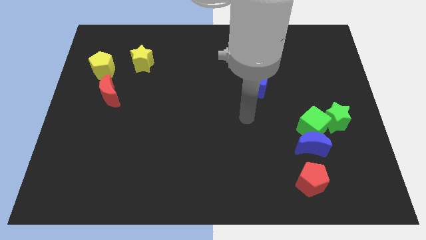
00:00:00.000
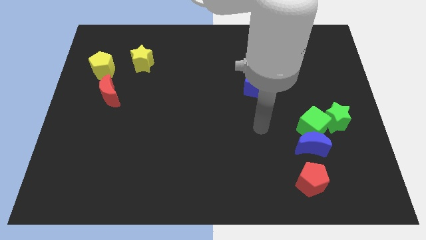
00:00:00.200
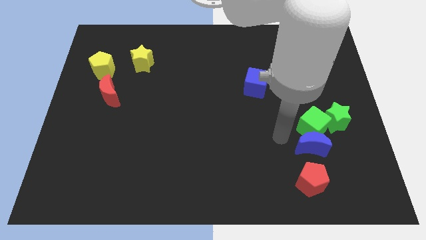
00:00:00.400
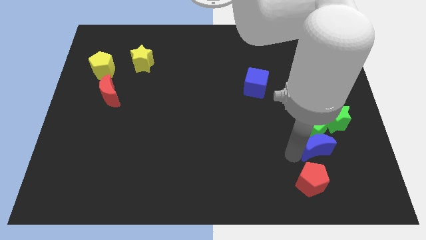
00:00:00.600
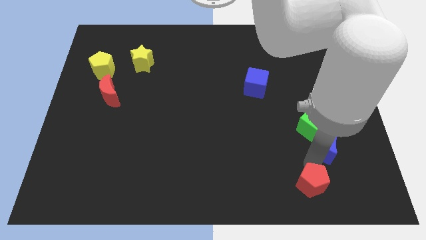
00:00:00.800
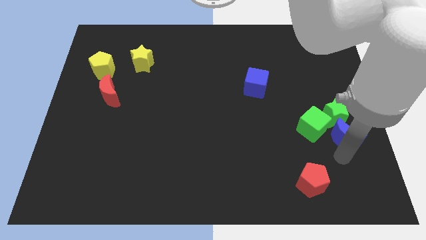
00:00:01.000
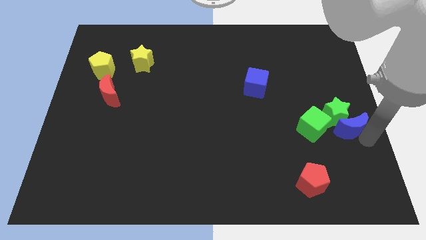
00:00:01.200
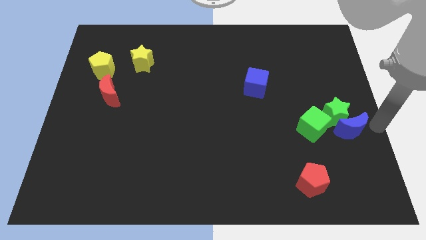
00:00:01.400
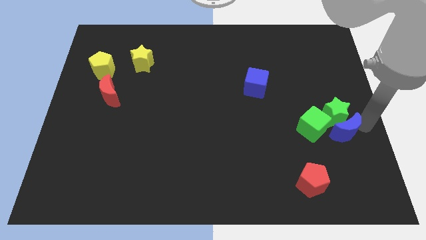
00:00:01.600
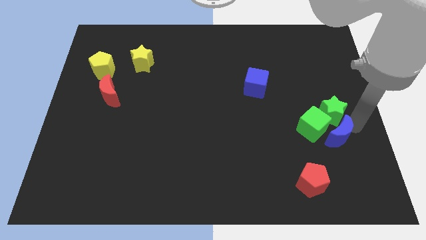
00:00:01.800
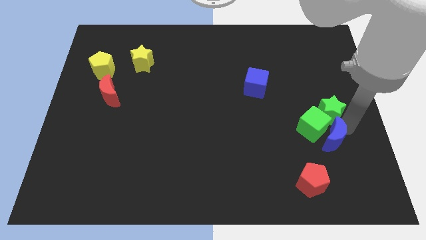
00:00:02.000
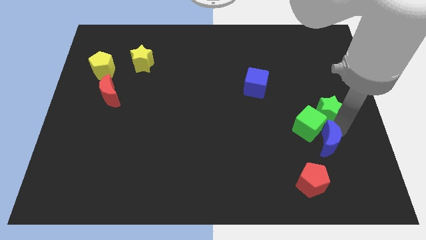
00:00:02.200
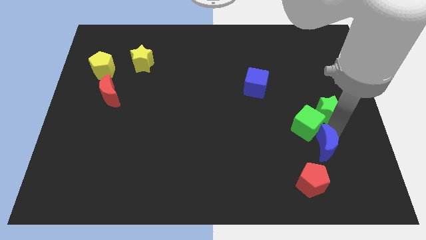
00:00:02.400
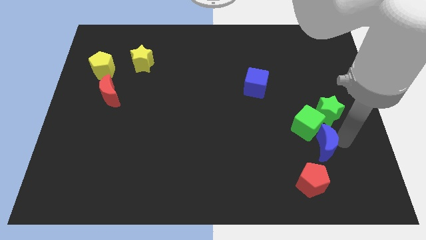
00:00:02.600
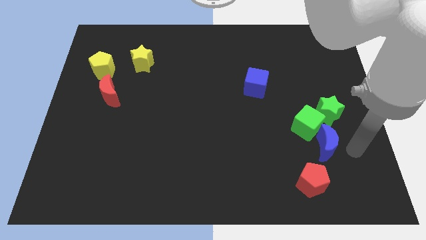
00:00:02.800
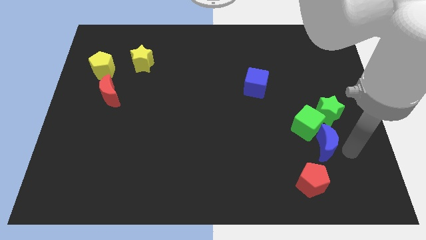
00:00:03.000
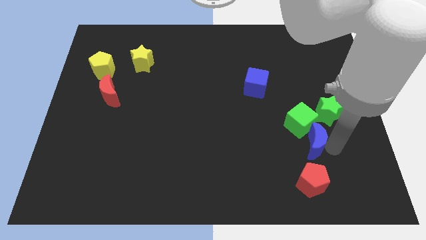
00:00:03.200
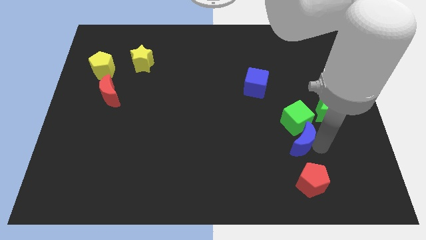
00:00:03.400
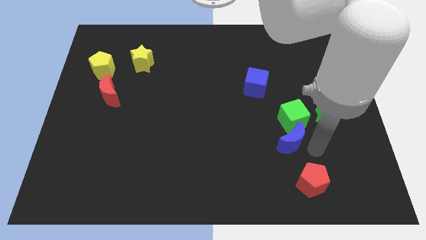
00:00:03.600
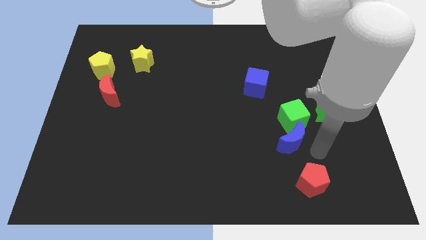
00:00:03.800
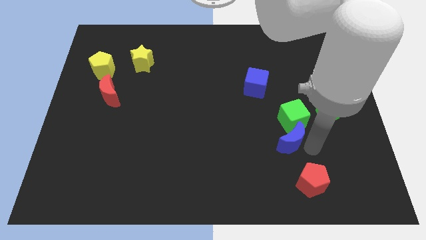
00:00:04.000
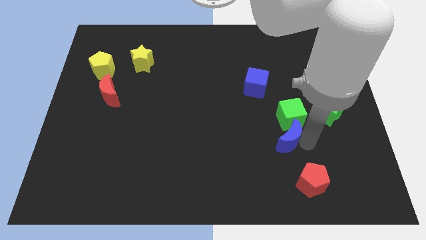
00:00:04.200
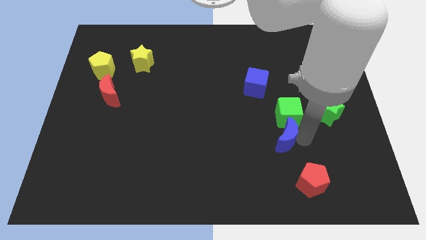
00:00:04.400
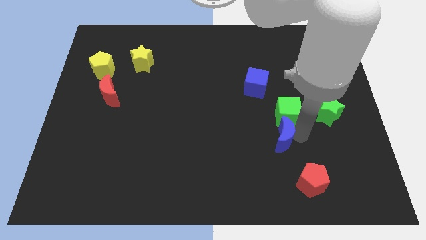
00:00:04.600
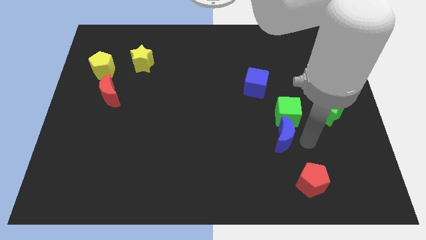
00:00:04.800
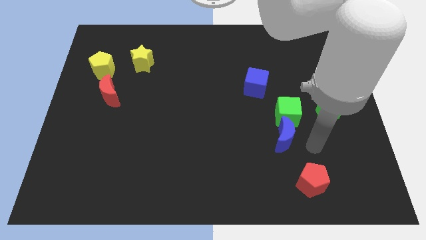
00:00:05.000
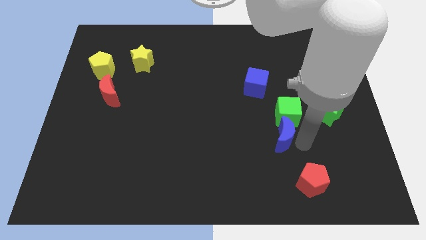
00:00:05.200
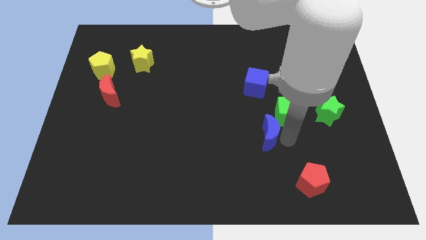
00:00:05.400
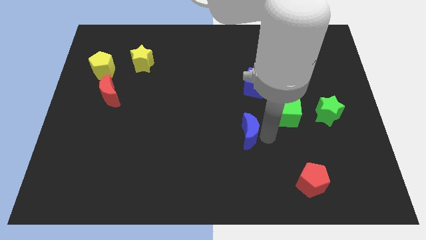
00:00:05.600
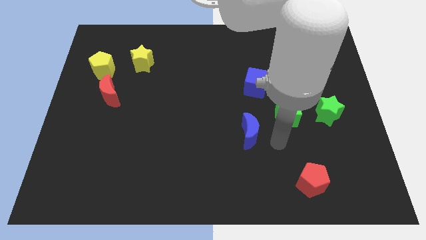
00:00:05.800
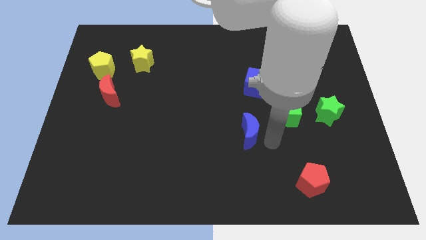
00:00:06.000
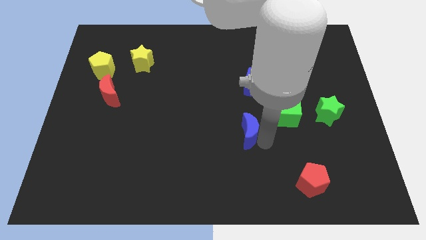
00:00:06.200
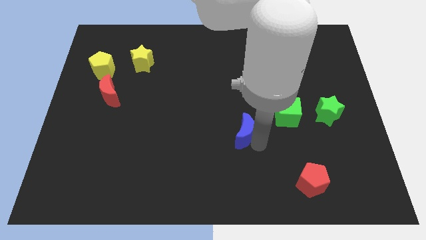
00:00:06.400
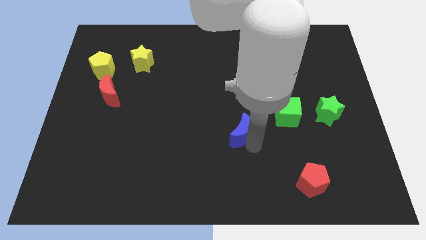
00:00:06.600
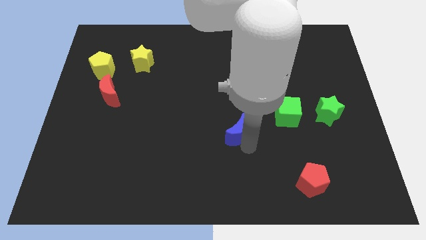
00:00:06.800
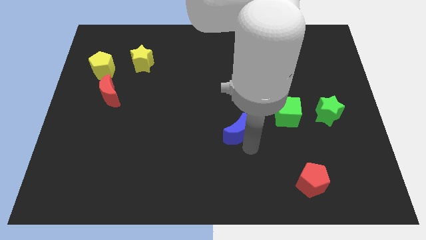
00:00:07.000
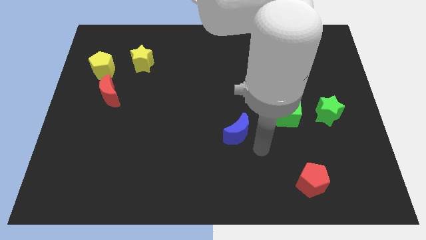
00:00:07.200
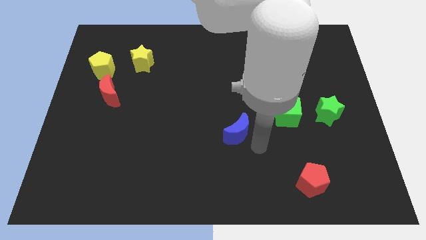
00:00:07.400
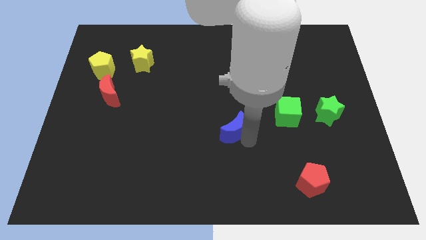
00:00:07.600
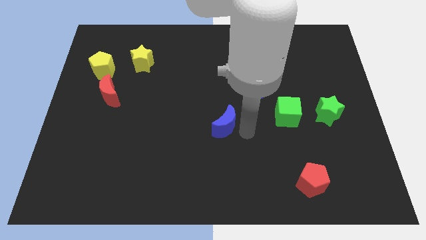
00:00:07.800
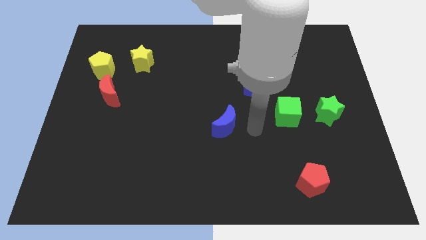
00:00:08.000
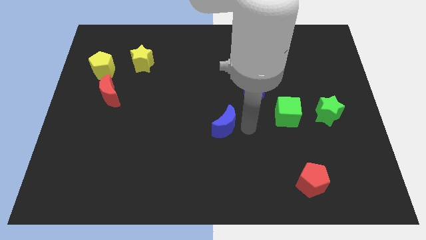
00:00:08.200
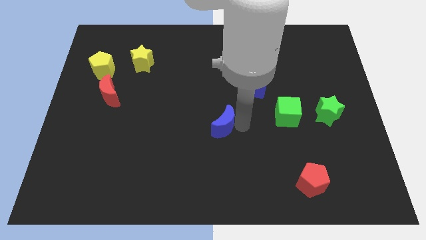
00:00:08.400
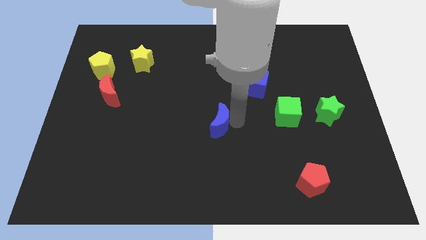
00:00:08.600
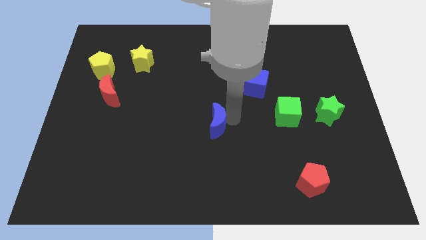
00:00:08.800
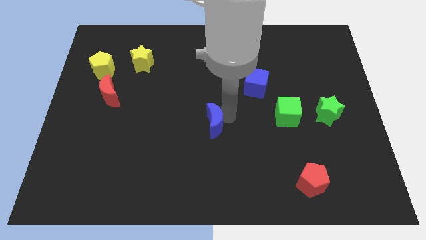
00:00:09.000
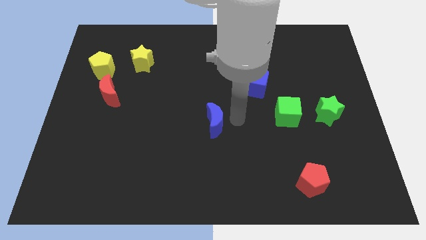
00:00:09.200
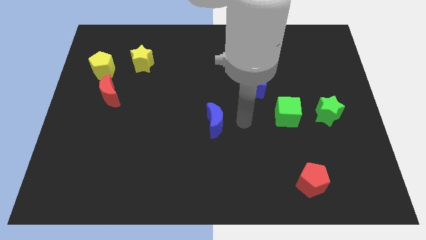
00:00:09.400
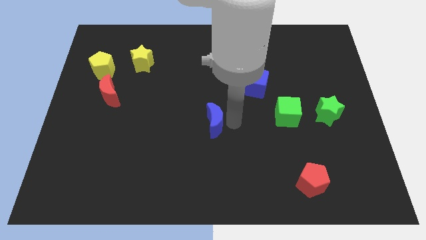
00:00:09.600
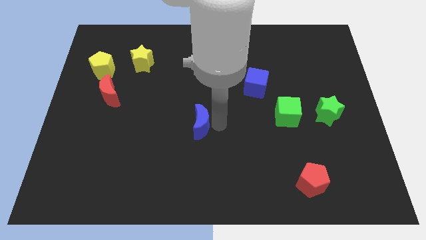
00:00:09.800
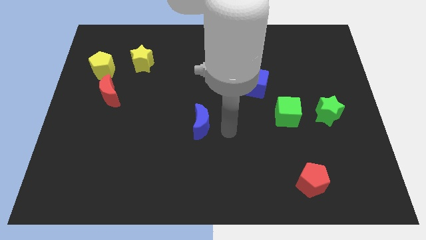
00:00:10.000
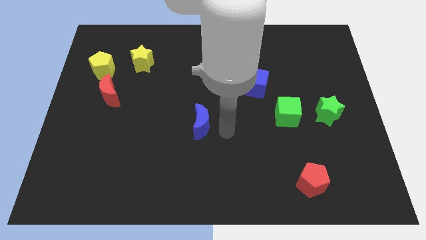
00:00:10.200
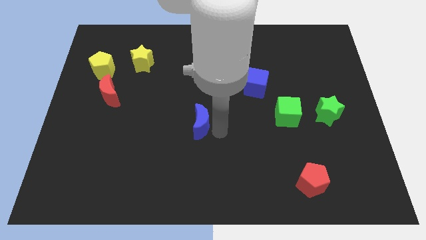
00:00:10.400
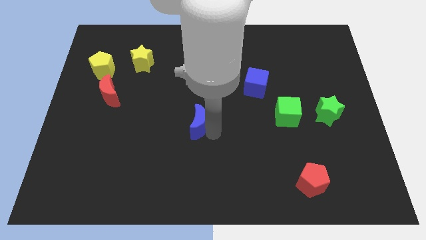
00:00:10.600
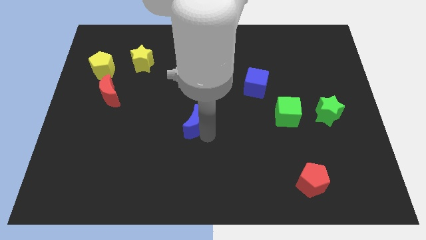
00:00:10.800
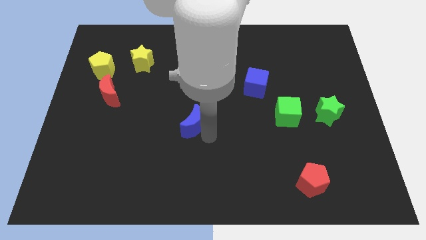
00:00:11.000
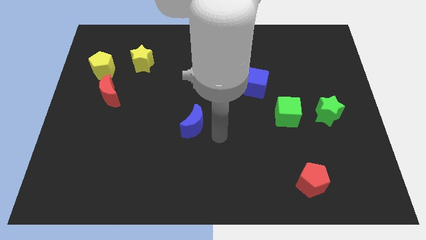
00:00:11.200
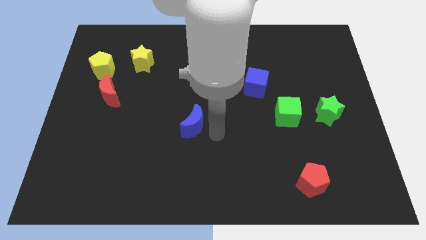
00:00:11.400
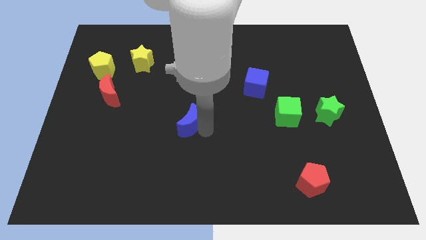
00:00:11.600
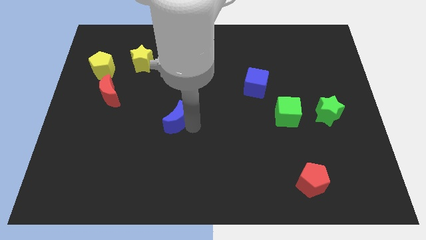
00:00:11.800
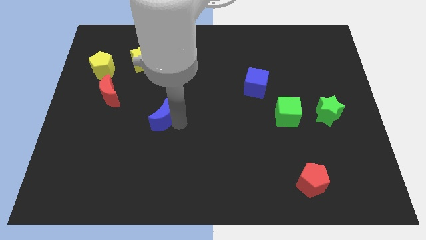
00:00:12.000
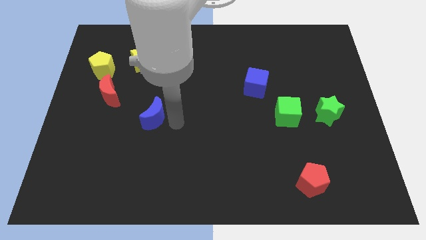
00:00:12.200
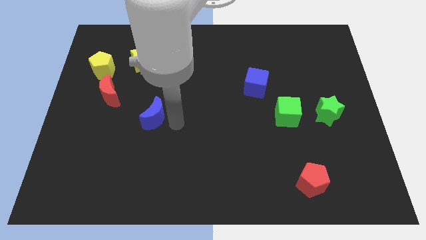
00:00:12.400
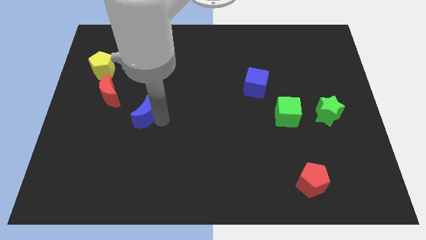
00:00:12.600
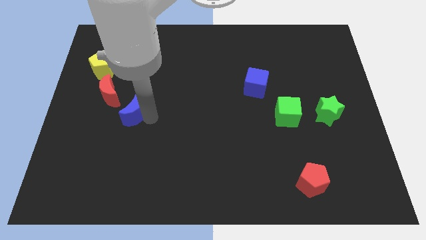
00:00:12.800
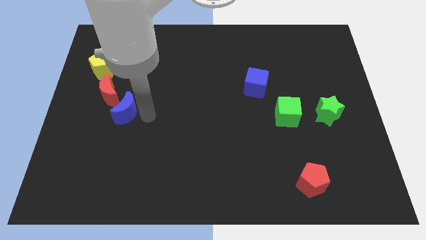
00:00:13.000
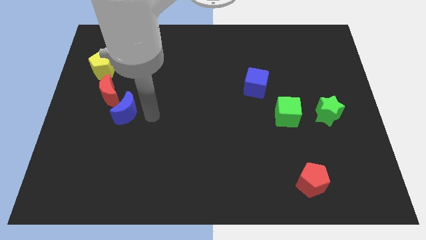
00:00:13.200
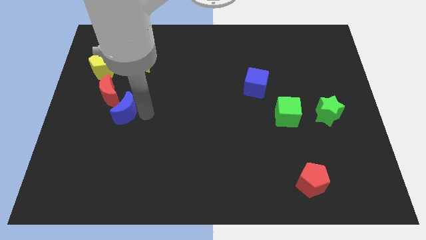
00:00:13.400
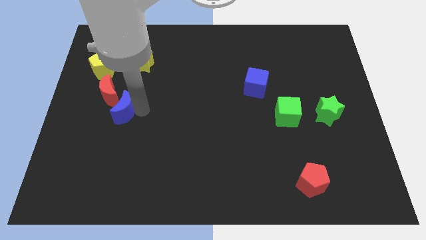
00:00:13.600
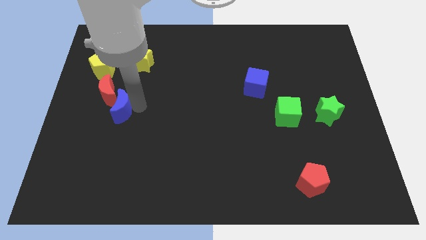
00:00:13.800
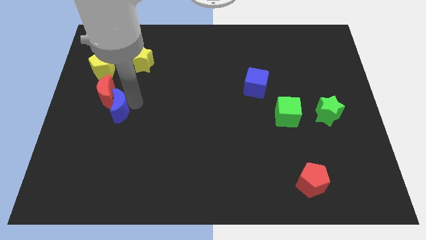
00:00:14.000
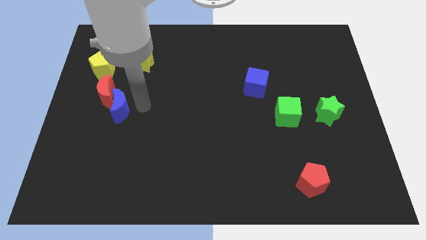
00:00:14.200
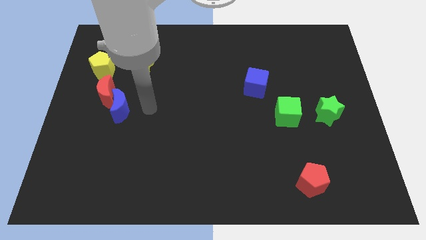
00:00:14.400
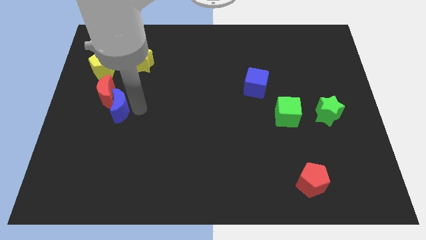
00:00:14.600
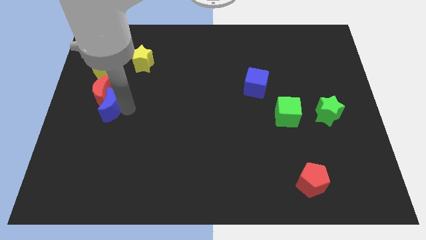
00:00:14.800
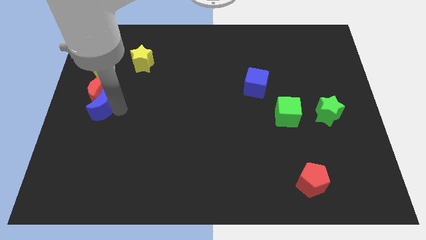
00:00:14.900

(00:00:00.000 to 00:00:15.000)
slide the blue moon to the left side of the board
